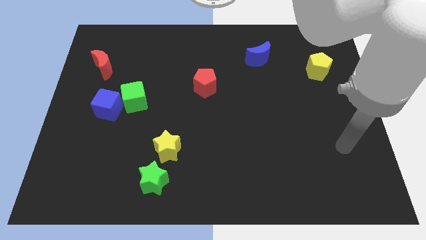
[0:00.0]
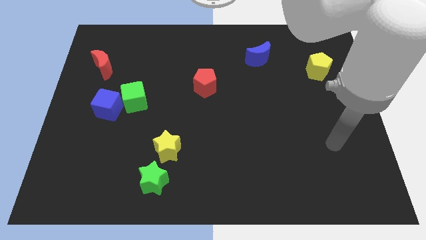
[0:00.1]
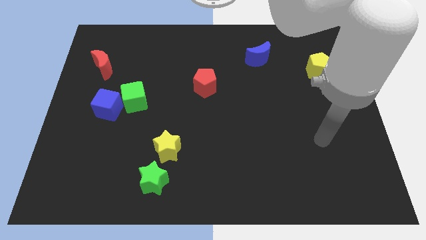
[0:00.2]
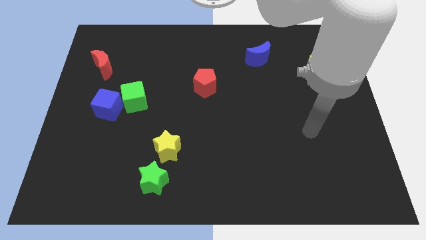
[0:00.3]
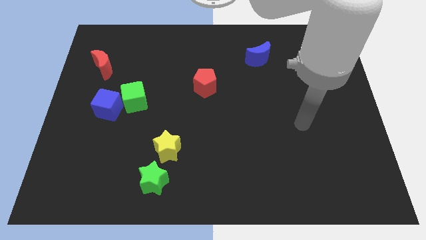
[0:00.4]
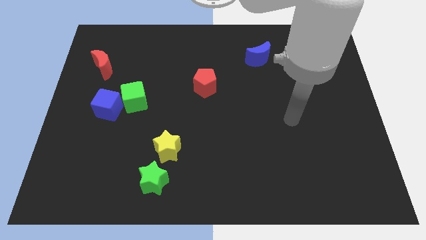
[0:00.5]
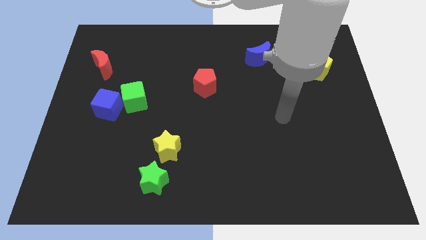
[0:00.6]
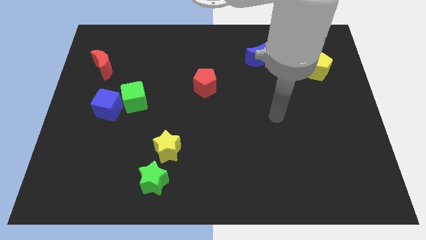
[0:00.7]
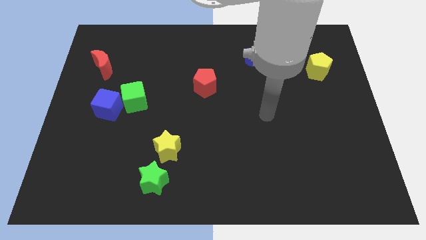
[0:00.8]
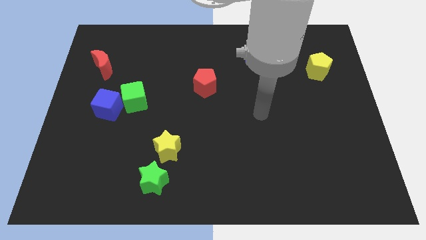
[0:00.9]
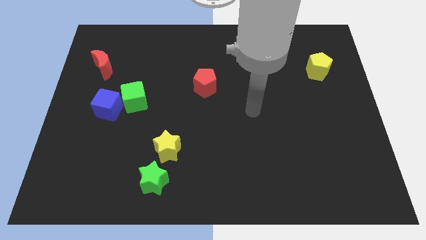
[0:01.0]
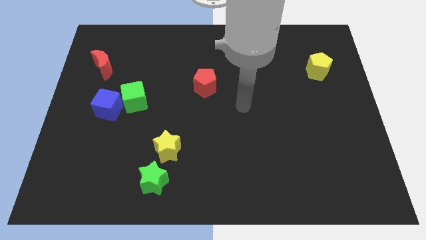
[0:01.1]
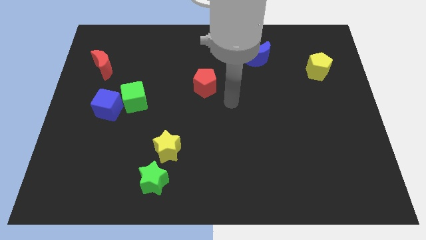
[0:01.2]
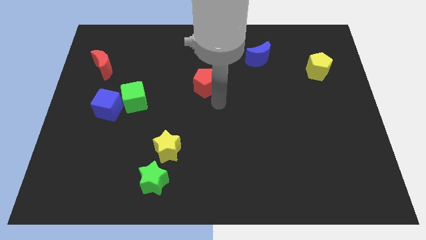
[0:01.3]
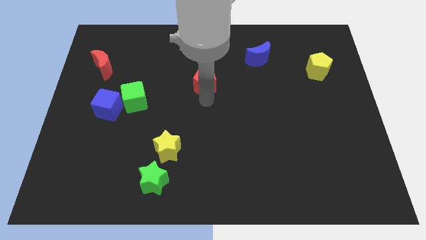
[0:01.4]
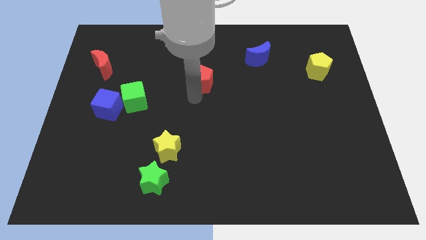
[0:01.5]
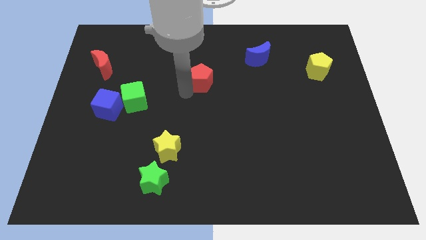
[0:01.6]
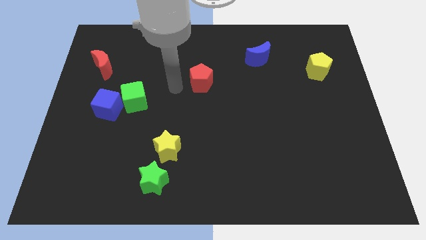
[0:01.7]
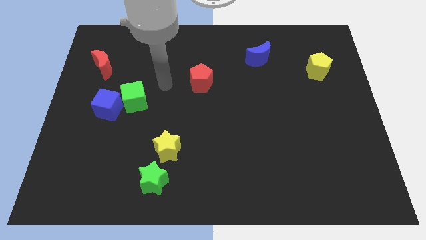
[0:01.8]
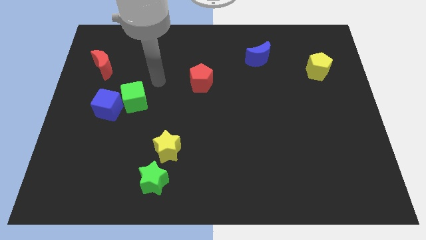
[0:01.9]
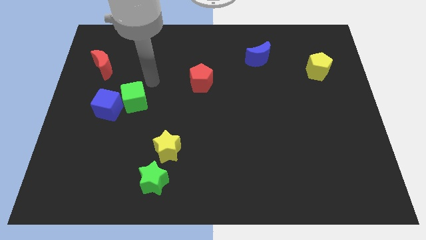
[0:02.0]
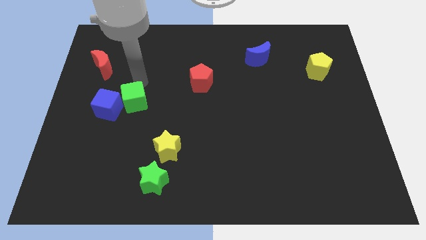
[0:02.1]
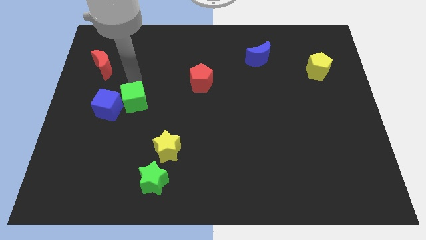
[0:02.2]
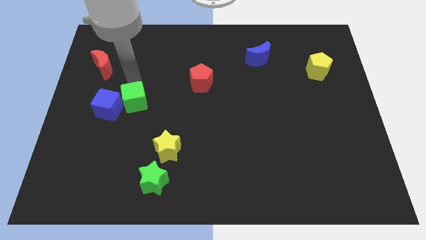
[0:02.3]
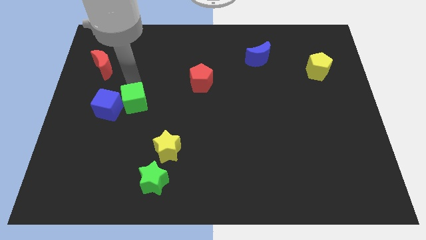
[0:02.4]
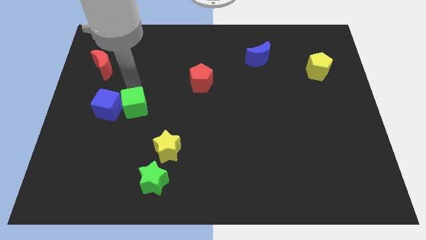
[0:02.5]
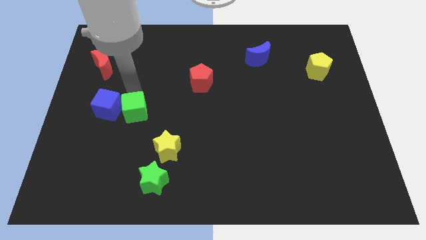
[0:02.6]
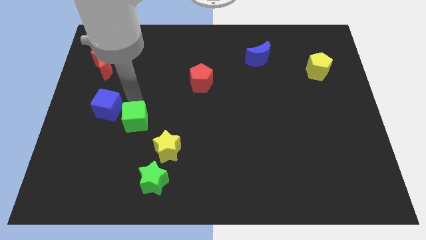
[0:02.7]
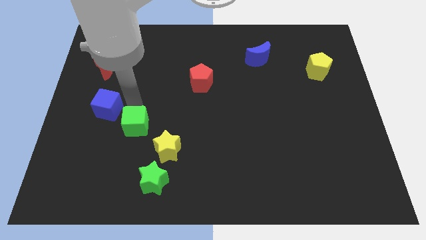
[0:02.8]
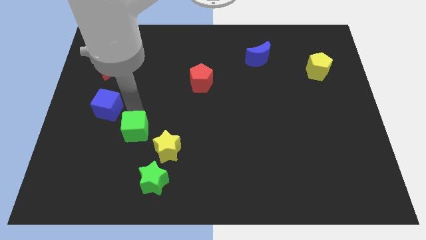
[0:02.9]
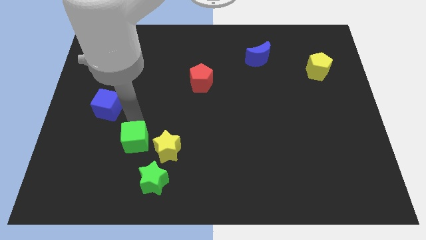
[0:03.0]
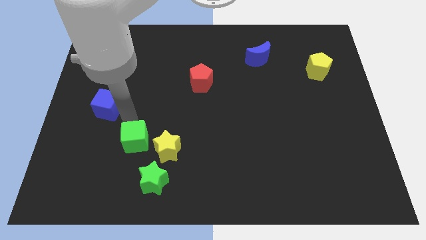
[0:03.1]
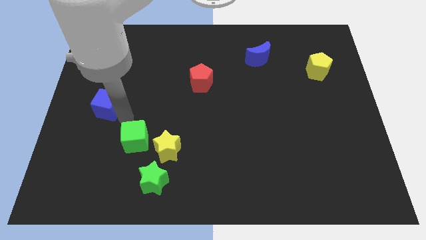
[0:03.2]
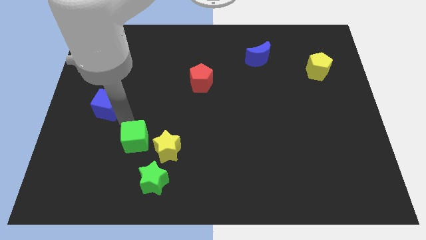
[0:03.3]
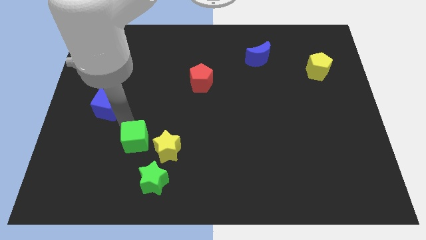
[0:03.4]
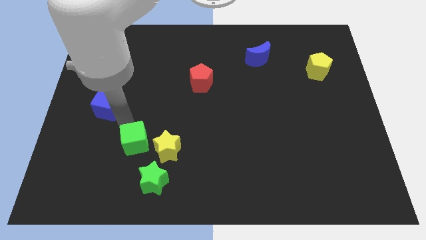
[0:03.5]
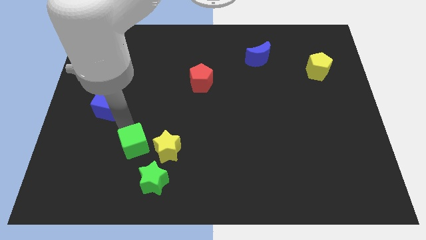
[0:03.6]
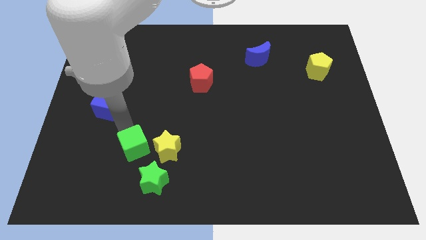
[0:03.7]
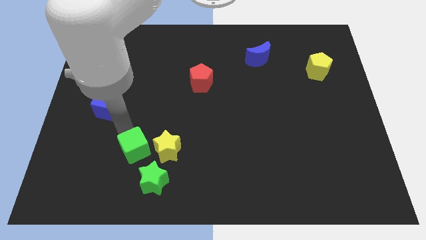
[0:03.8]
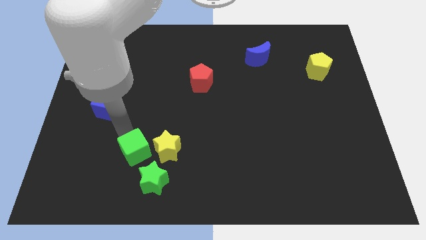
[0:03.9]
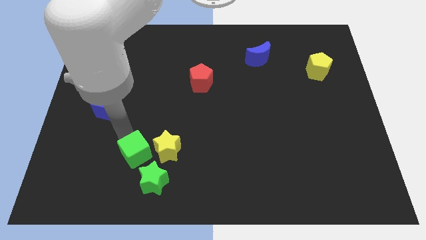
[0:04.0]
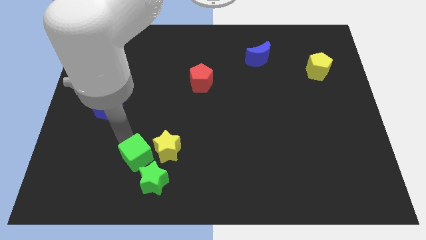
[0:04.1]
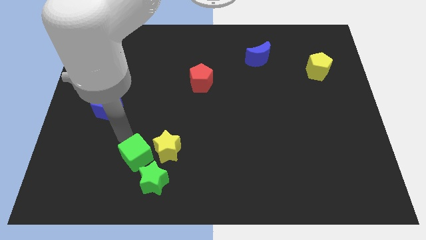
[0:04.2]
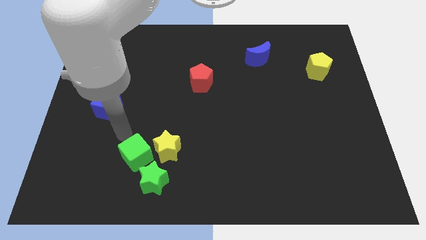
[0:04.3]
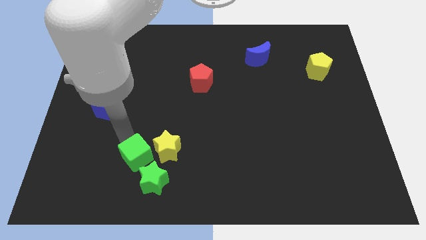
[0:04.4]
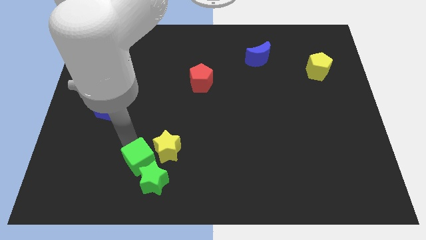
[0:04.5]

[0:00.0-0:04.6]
push the green cube close to the green star

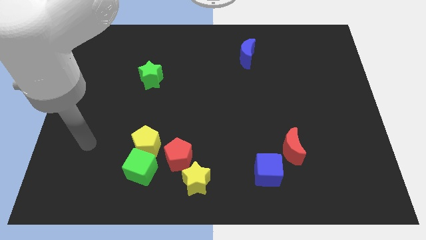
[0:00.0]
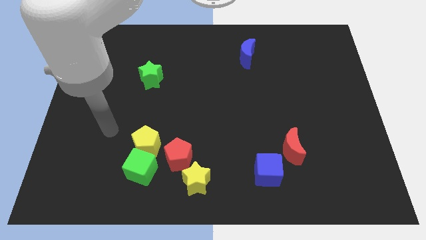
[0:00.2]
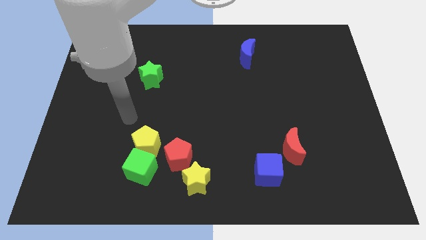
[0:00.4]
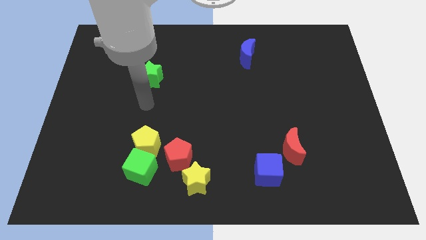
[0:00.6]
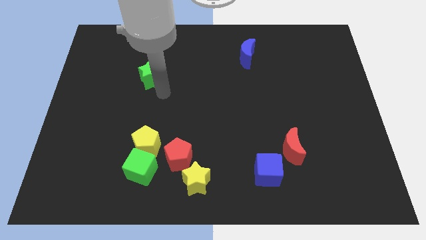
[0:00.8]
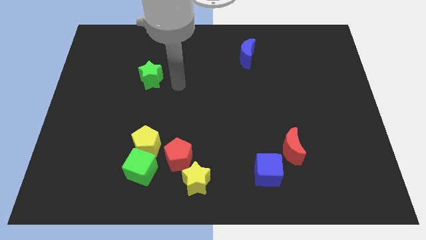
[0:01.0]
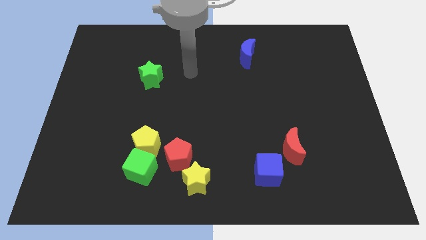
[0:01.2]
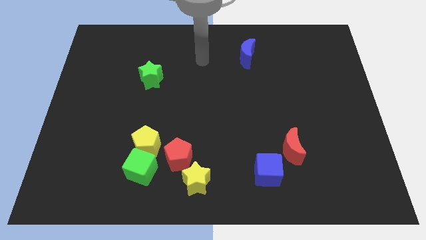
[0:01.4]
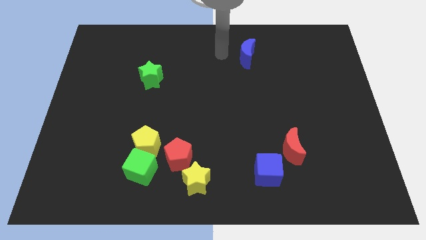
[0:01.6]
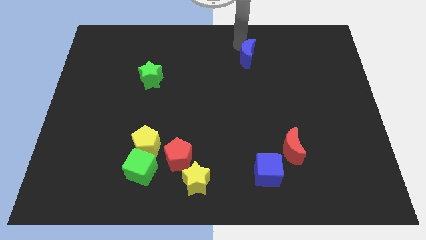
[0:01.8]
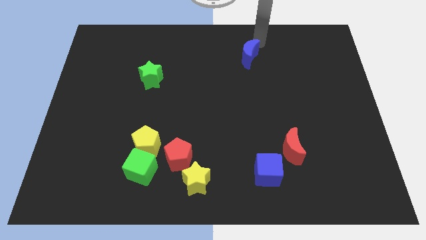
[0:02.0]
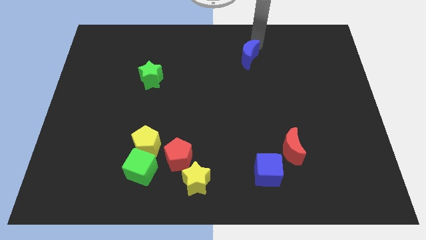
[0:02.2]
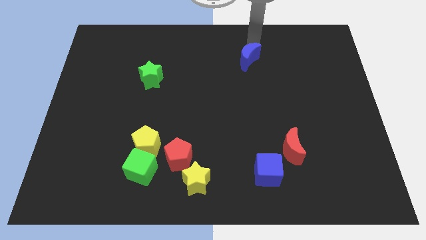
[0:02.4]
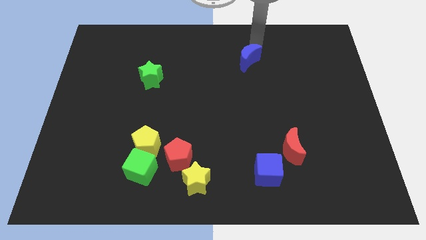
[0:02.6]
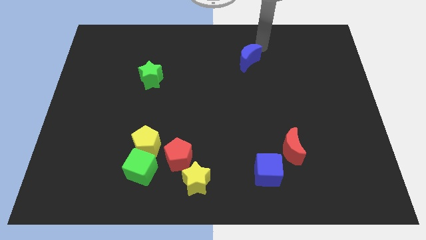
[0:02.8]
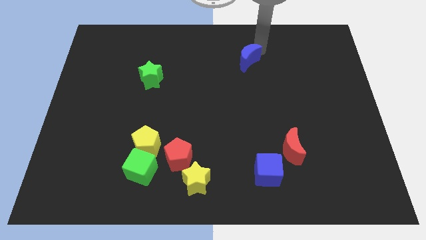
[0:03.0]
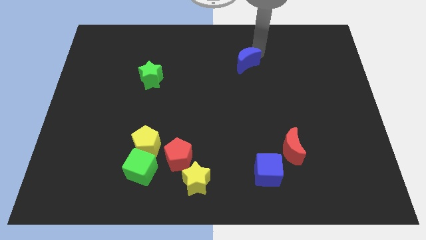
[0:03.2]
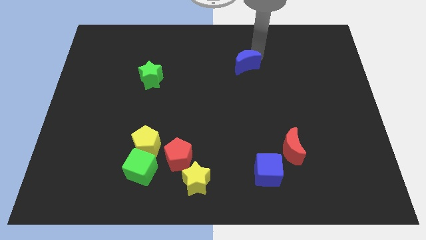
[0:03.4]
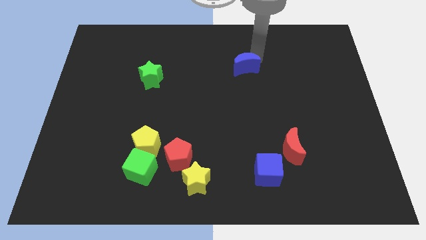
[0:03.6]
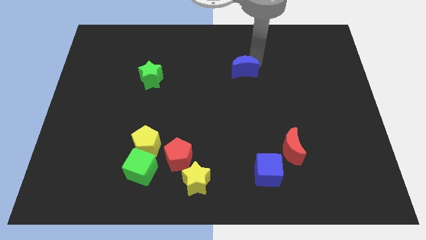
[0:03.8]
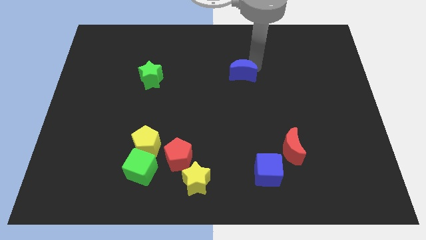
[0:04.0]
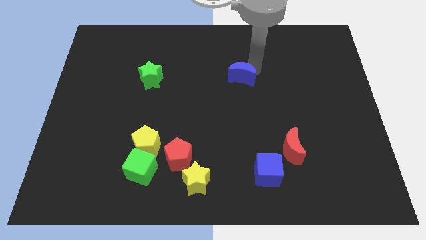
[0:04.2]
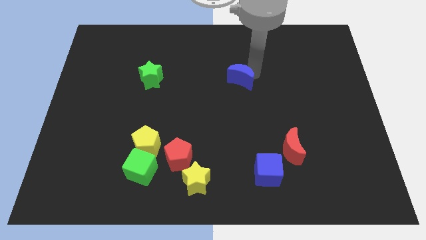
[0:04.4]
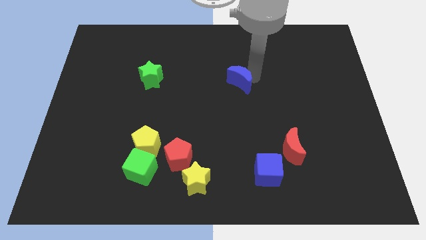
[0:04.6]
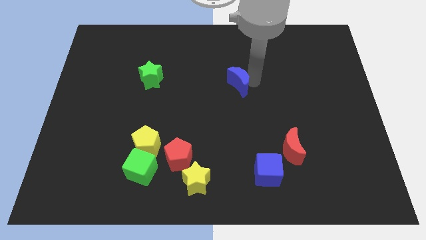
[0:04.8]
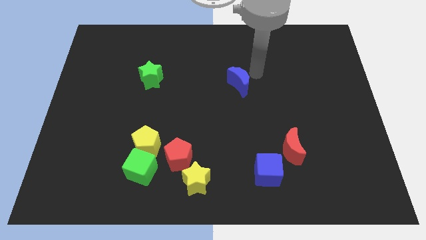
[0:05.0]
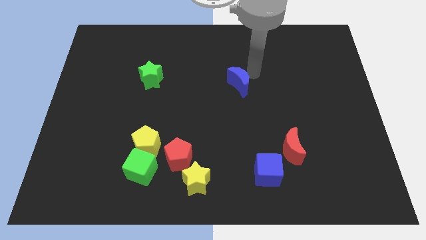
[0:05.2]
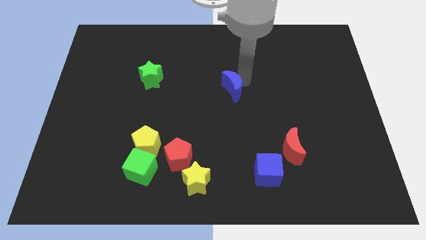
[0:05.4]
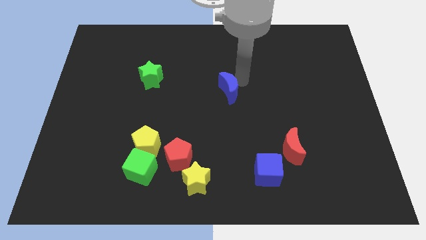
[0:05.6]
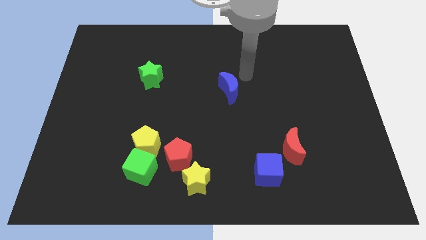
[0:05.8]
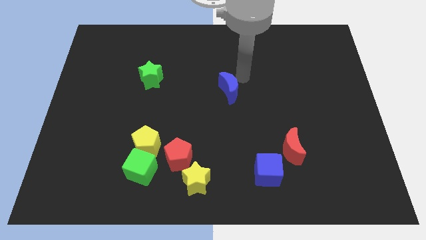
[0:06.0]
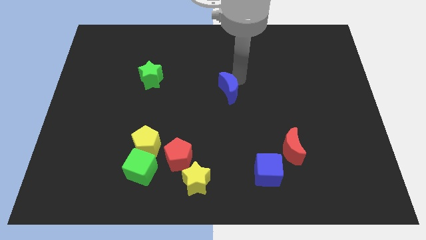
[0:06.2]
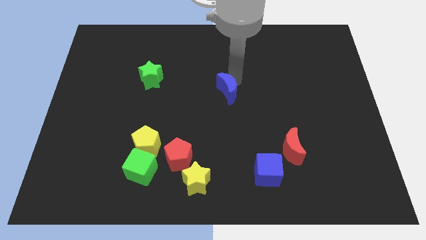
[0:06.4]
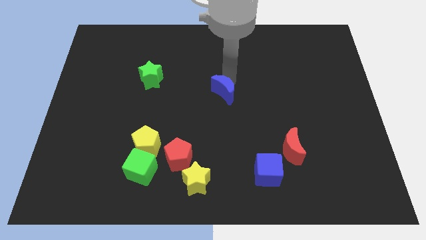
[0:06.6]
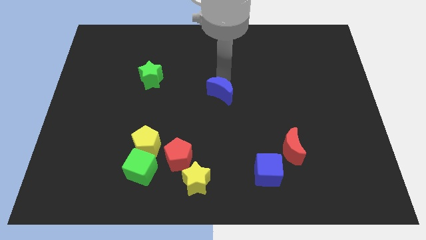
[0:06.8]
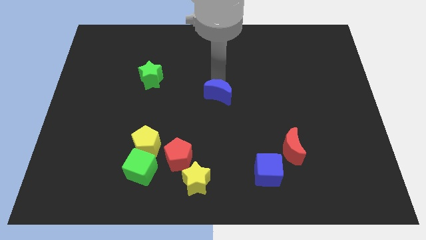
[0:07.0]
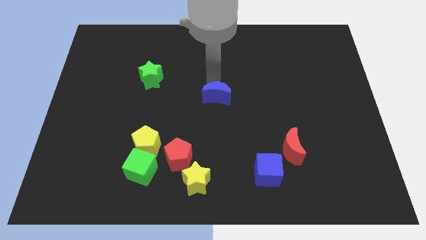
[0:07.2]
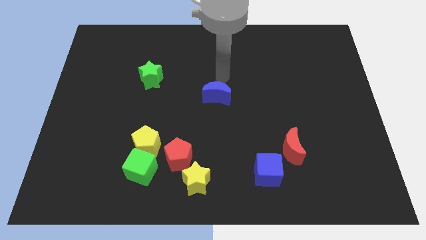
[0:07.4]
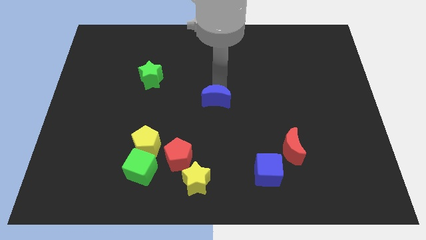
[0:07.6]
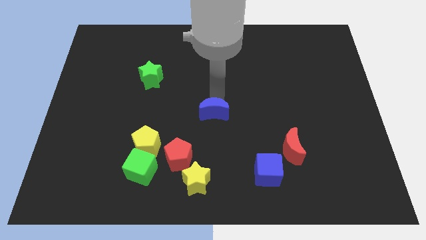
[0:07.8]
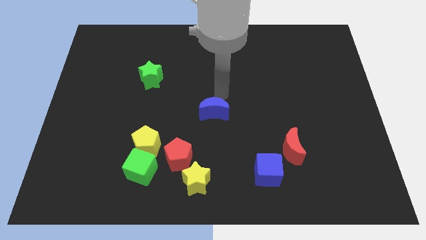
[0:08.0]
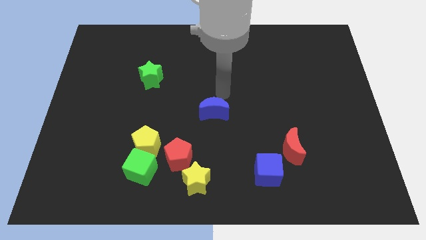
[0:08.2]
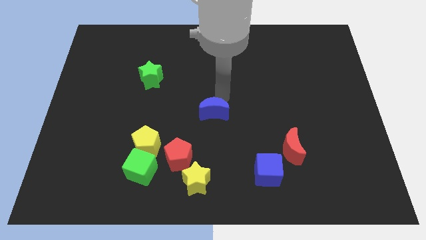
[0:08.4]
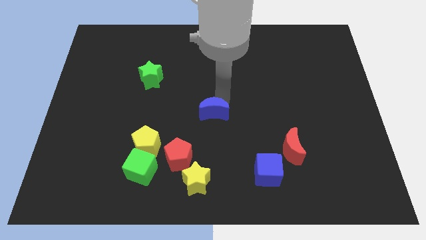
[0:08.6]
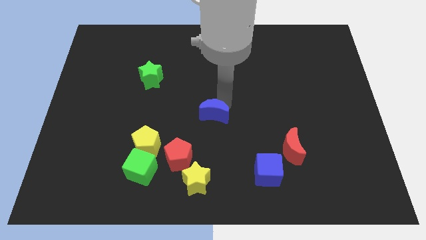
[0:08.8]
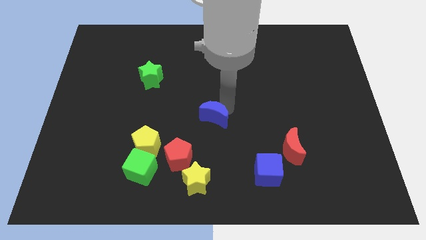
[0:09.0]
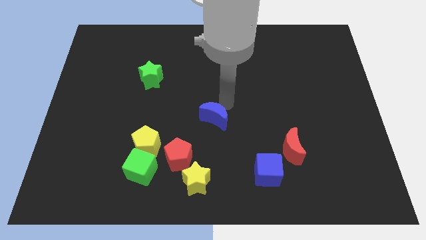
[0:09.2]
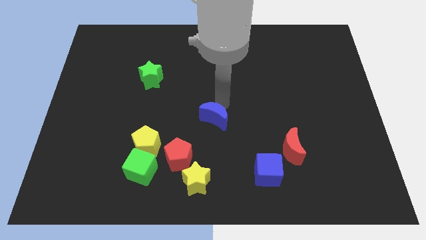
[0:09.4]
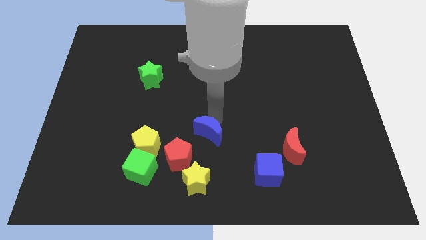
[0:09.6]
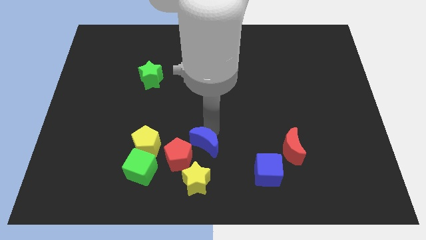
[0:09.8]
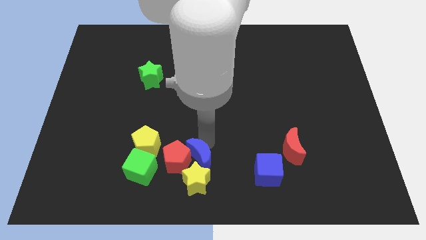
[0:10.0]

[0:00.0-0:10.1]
put the blue moon to the yellow star
